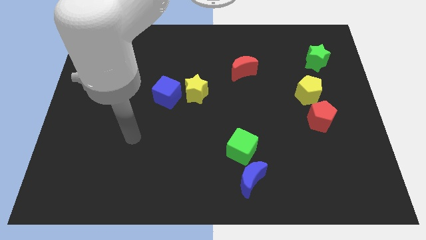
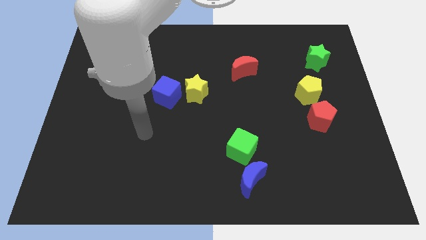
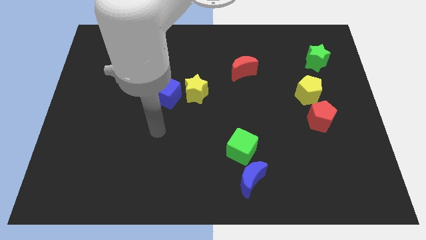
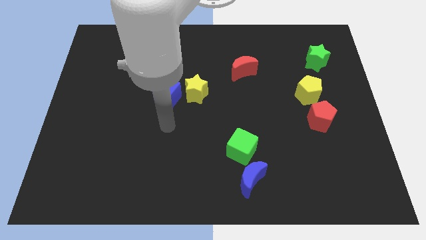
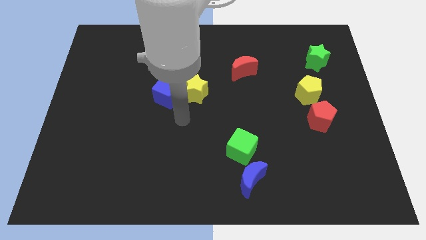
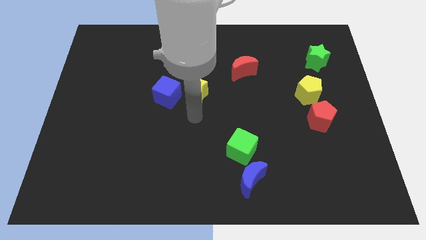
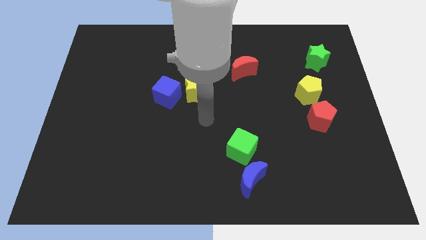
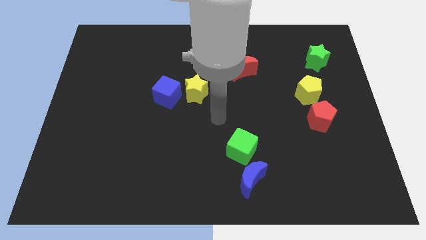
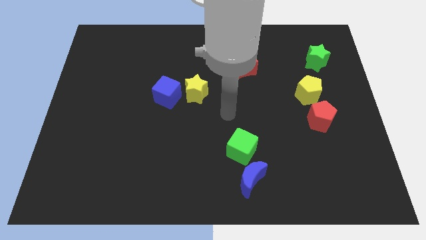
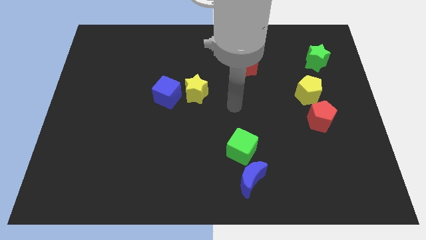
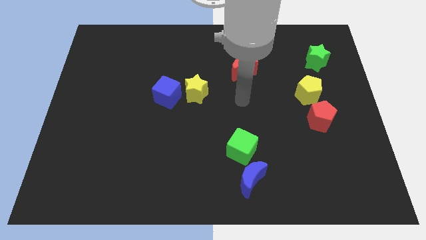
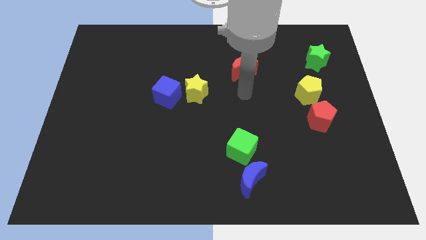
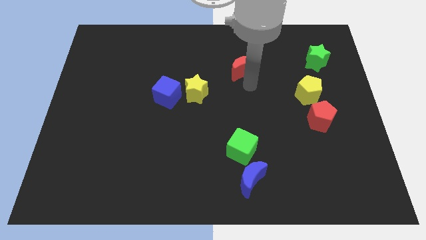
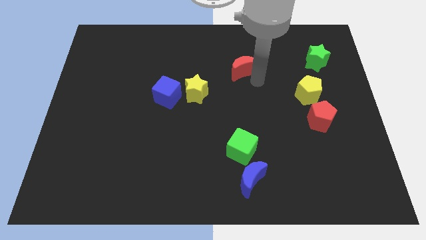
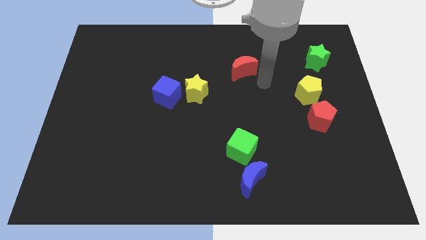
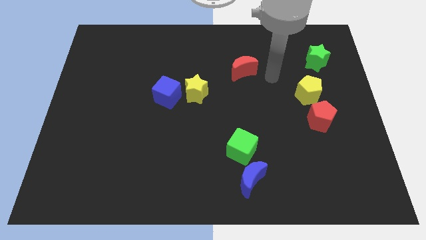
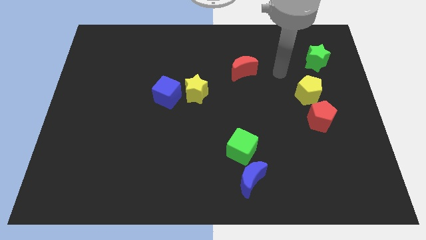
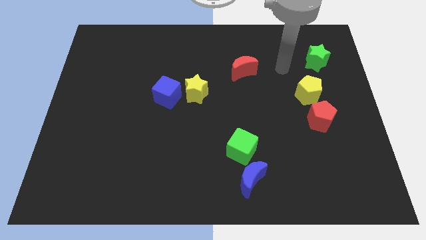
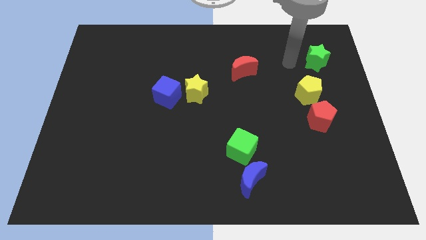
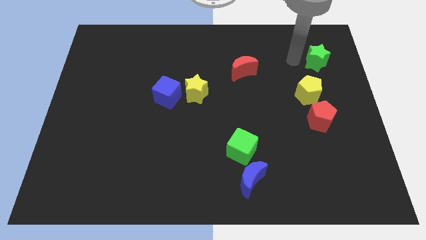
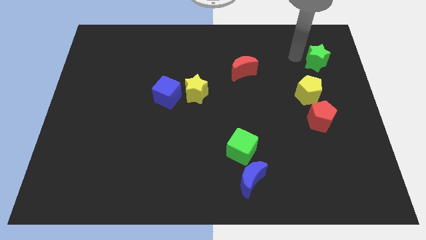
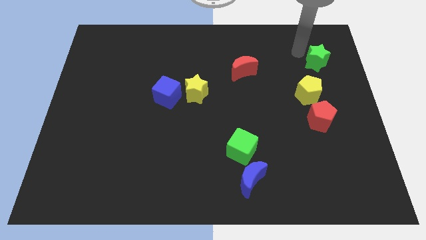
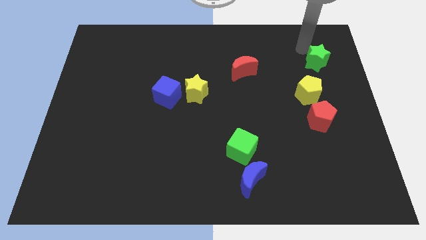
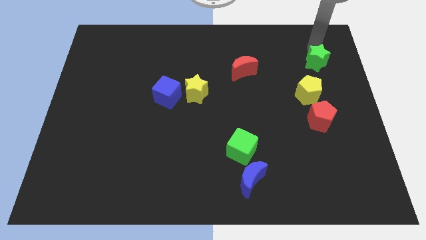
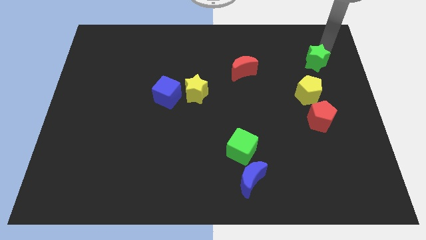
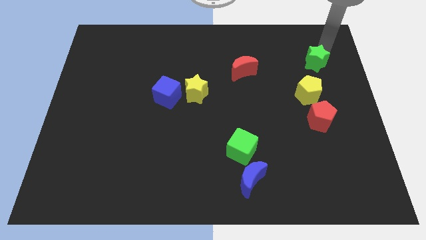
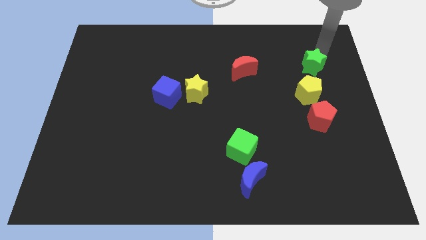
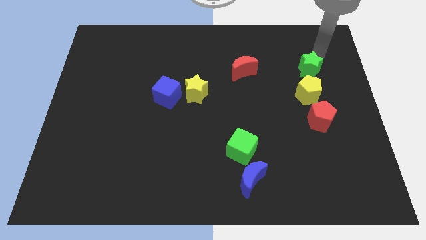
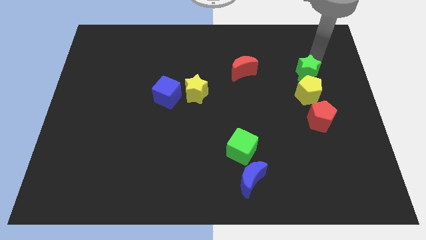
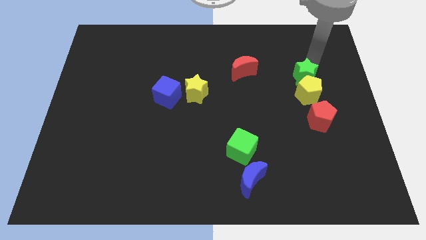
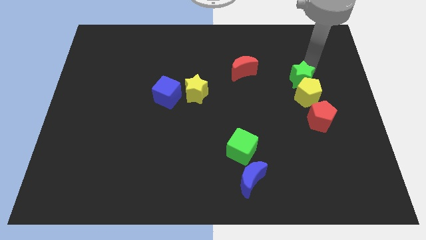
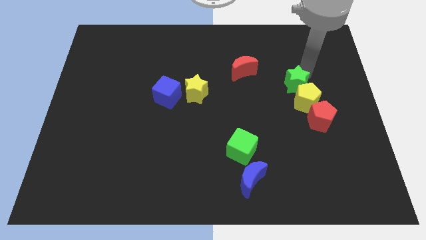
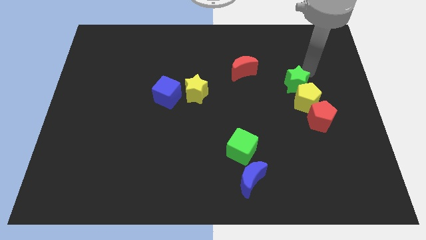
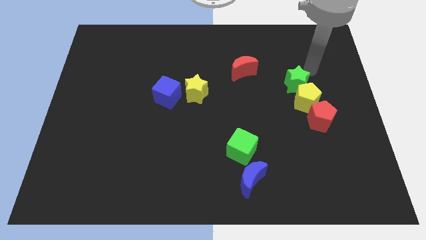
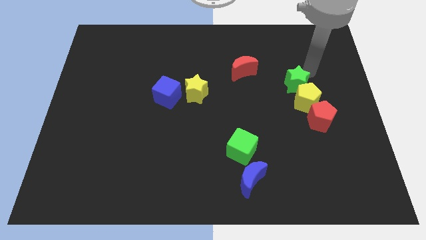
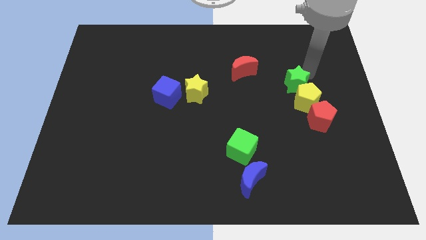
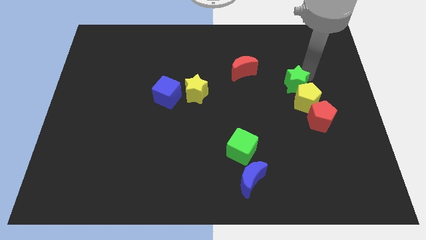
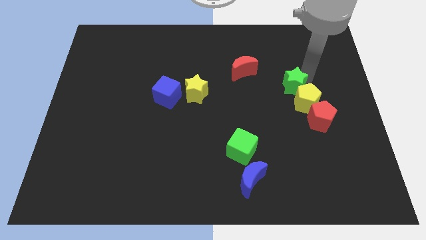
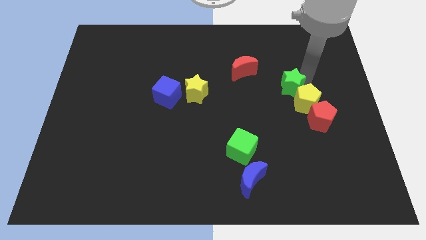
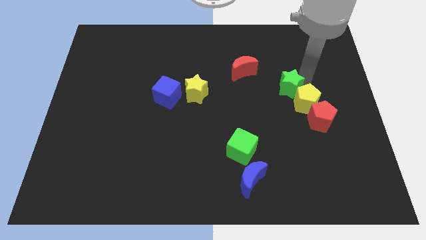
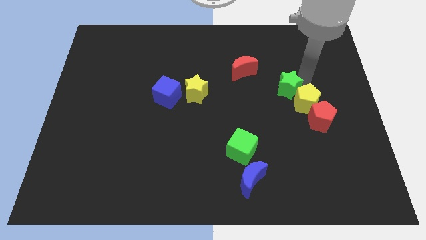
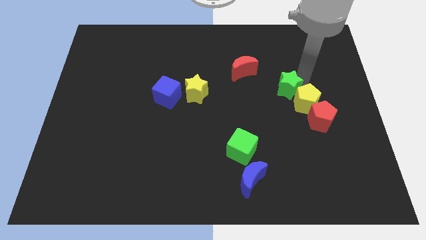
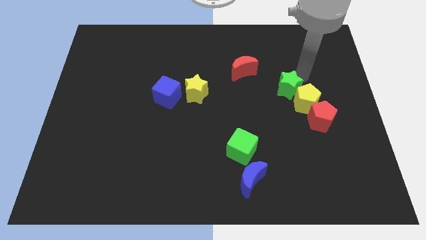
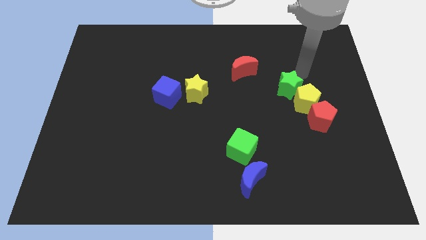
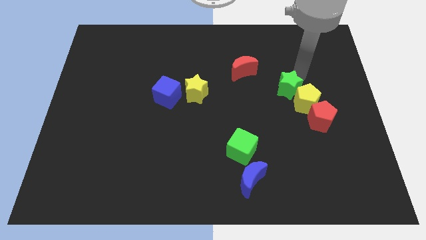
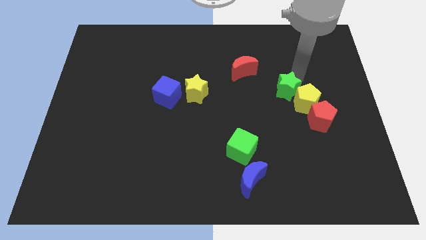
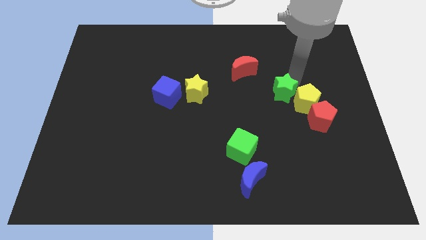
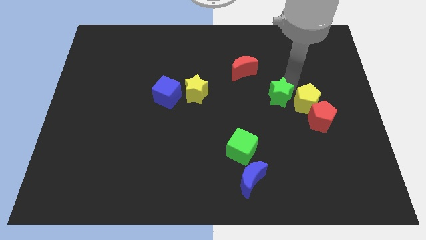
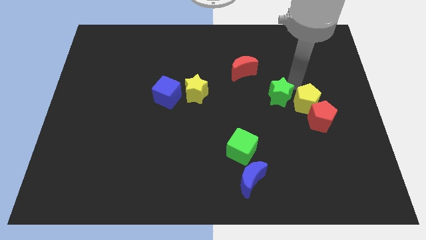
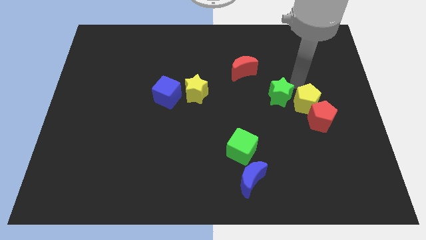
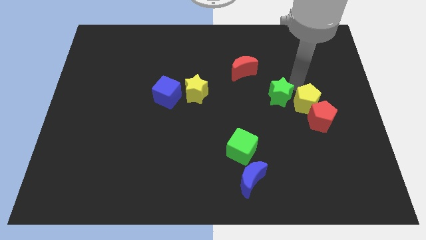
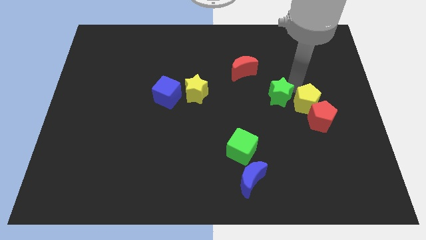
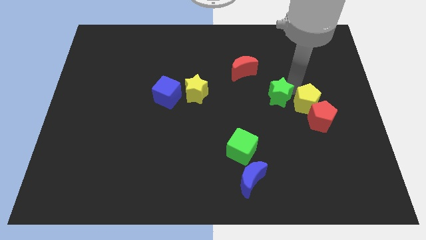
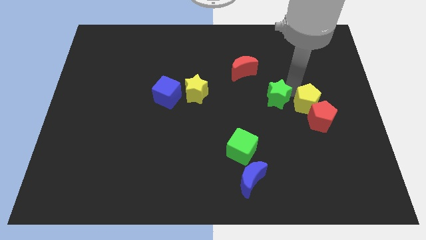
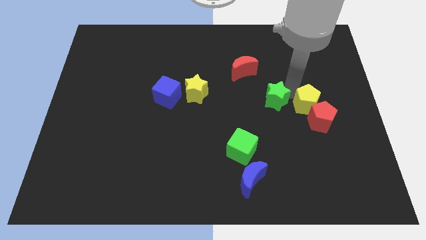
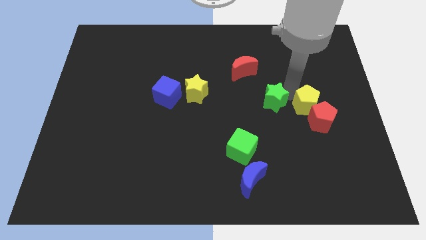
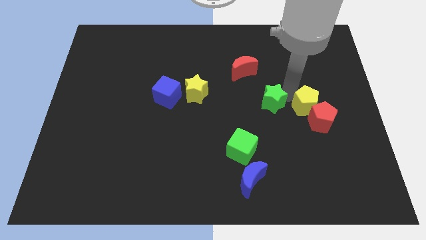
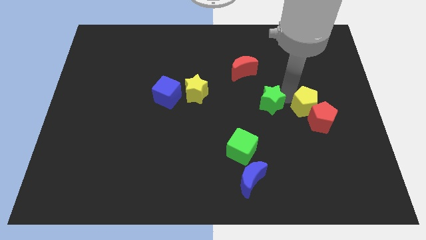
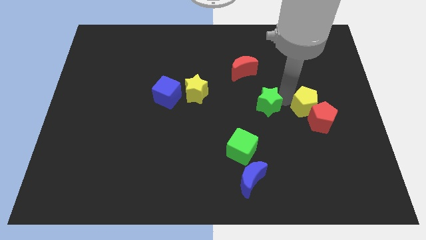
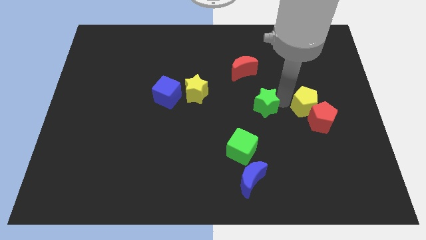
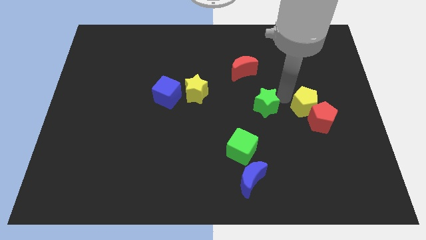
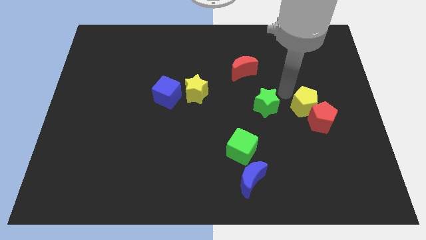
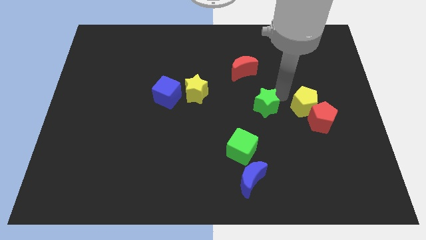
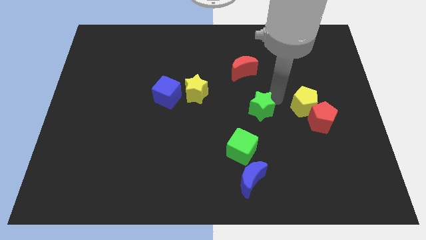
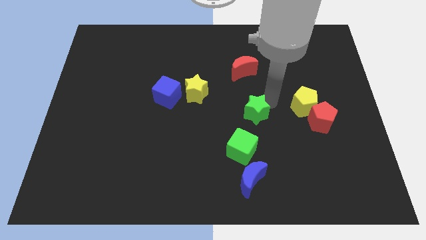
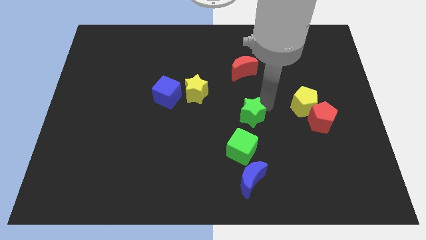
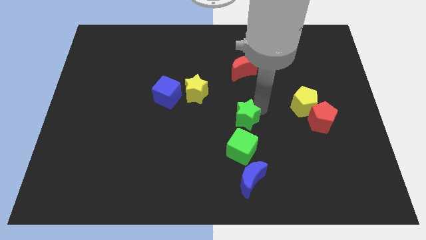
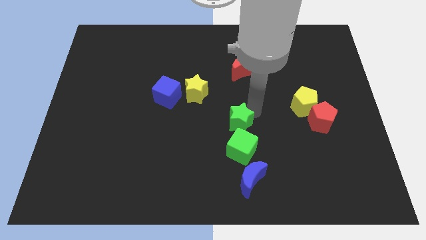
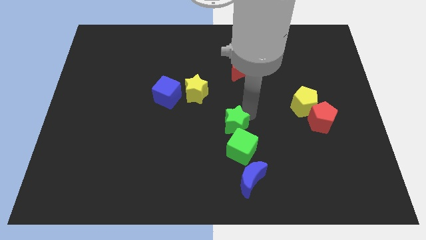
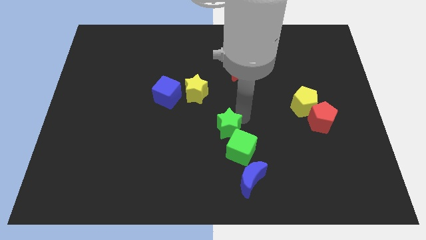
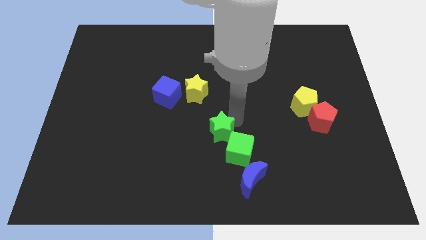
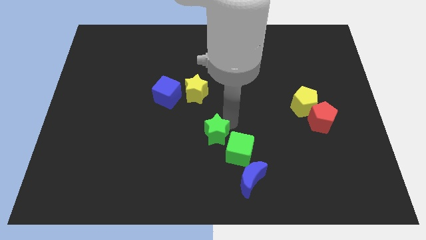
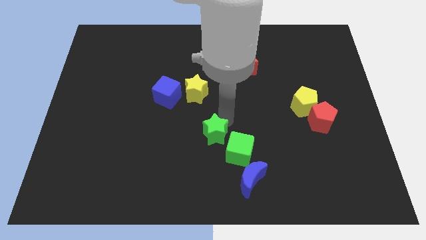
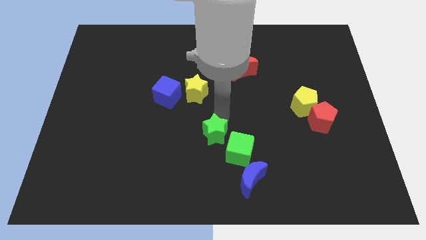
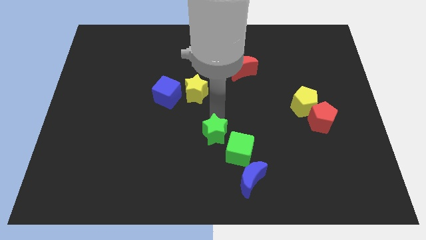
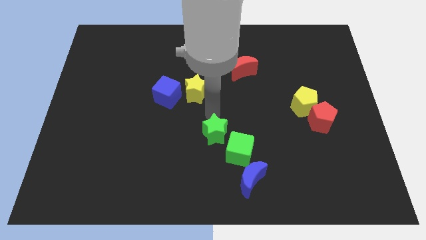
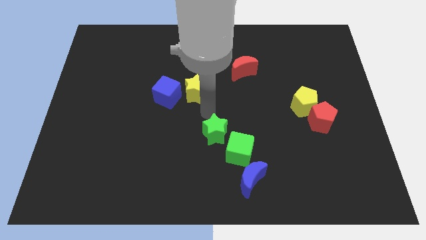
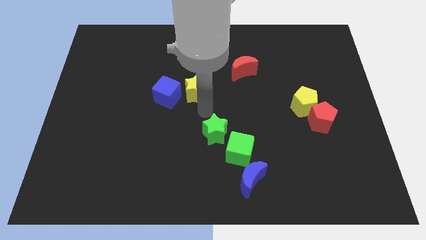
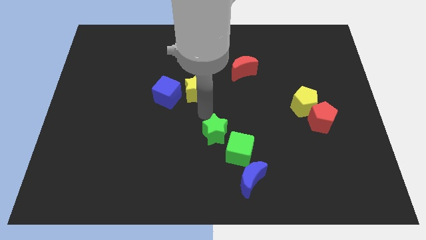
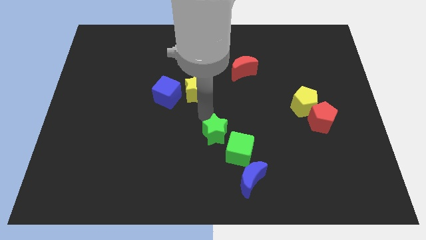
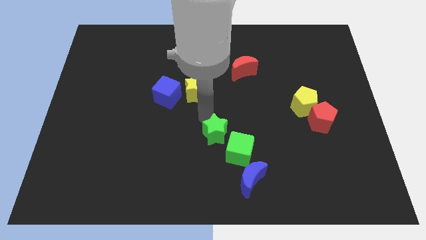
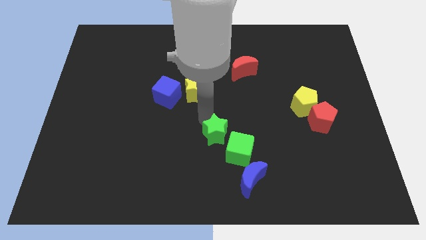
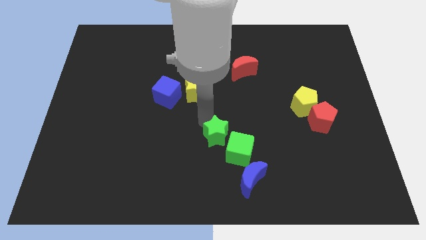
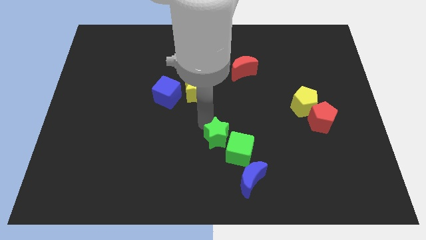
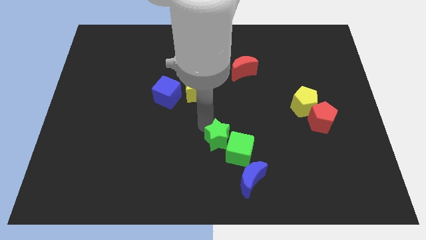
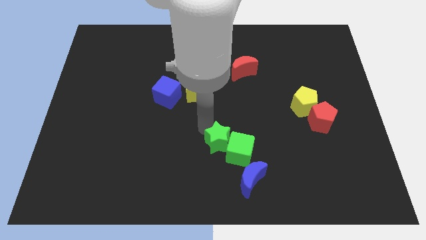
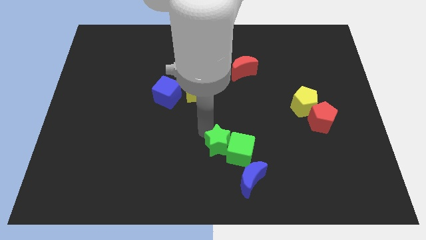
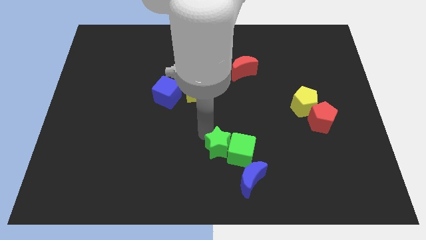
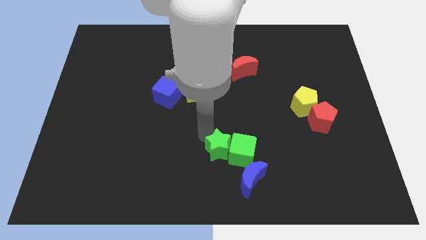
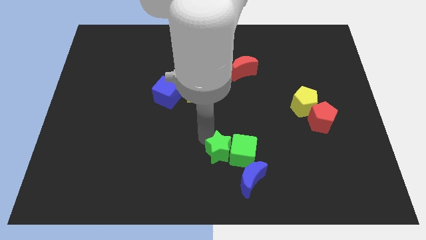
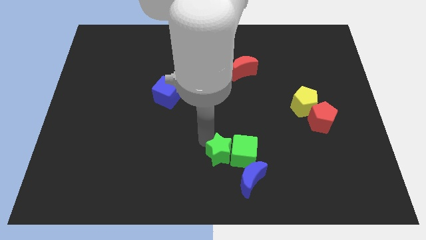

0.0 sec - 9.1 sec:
put the green star to the bottom side
